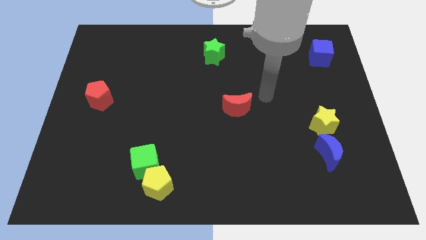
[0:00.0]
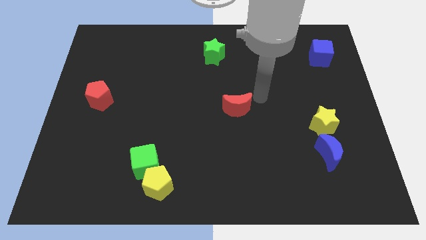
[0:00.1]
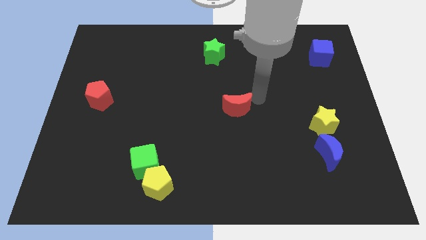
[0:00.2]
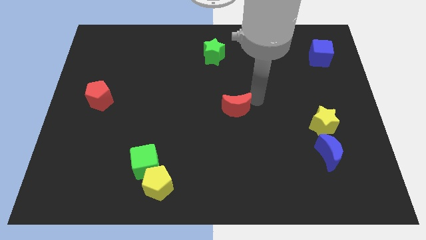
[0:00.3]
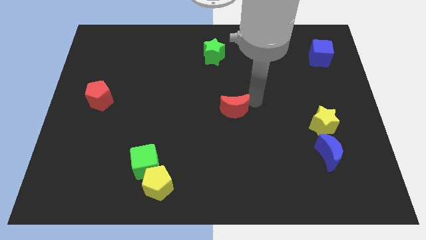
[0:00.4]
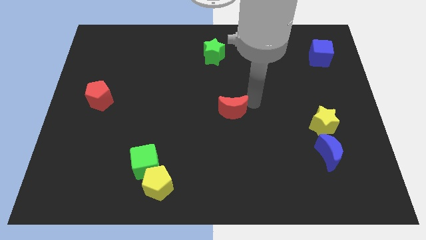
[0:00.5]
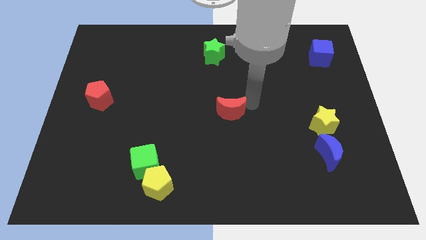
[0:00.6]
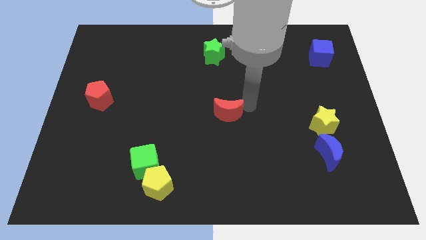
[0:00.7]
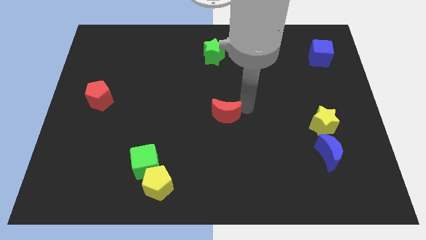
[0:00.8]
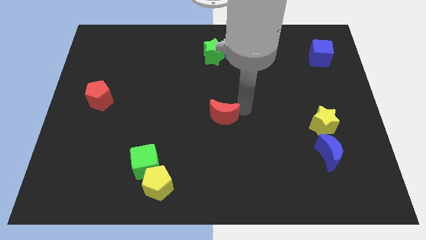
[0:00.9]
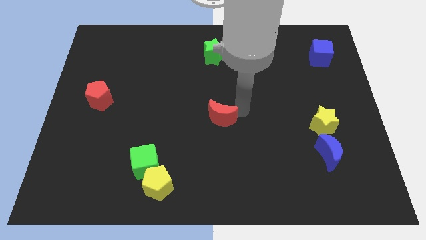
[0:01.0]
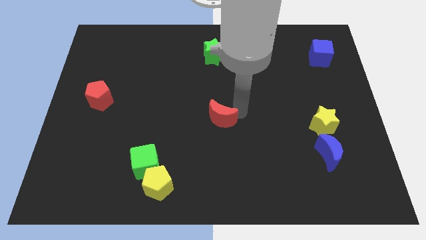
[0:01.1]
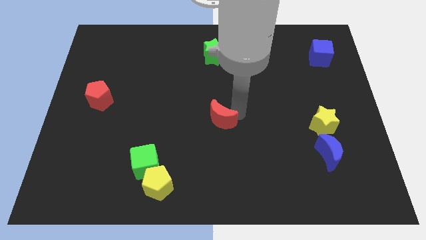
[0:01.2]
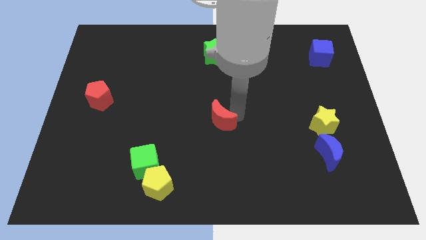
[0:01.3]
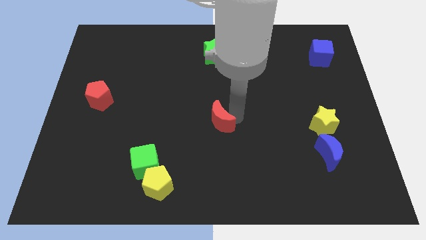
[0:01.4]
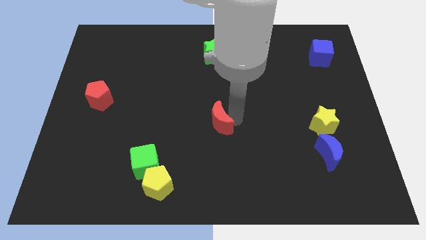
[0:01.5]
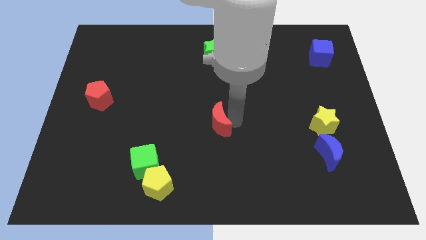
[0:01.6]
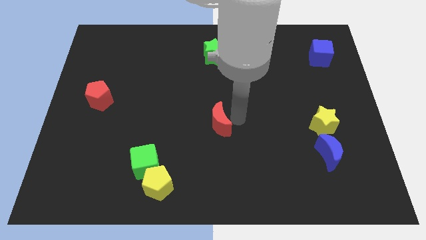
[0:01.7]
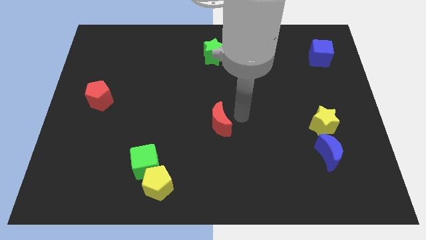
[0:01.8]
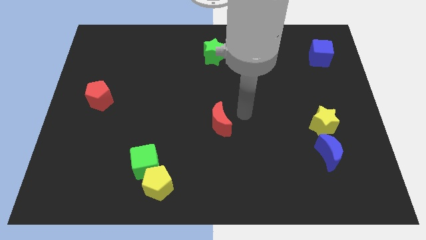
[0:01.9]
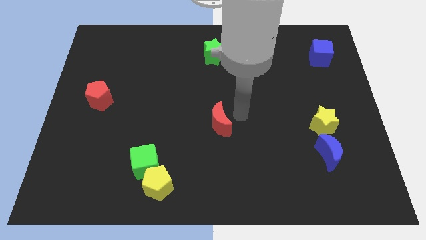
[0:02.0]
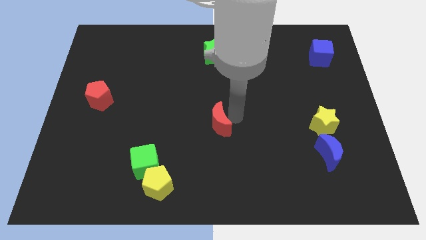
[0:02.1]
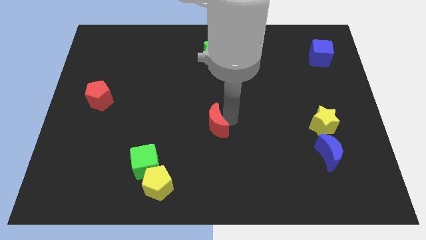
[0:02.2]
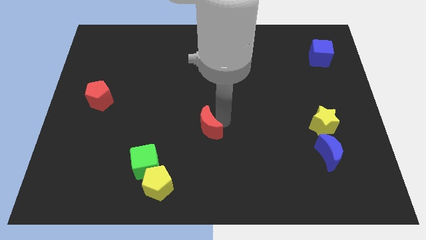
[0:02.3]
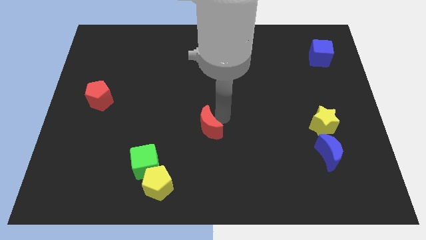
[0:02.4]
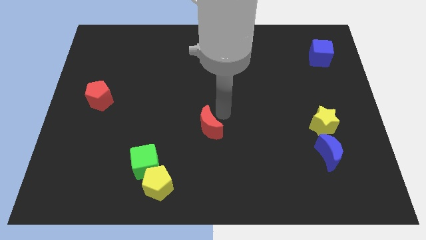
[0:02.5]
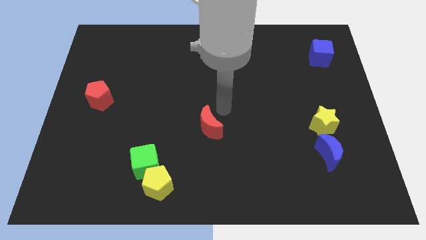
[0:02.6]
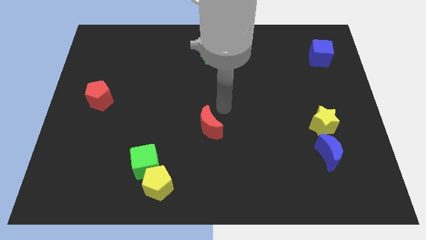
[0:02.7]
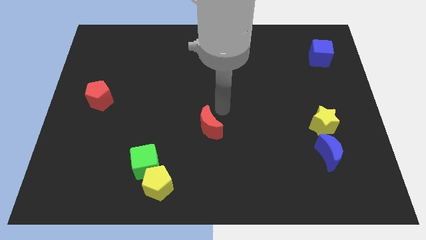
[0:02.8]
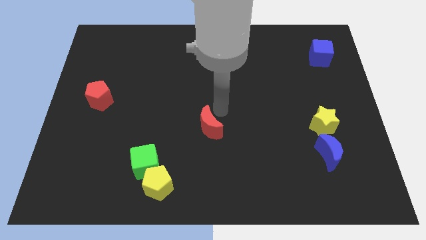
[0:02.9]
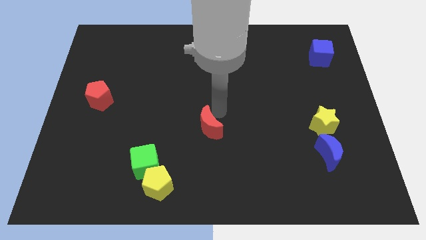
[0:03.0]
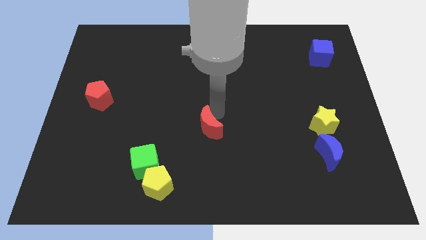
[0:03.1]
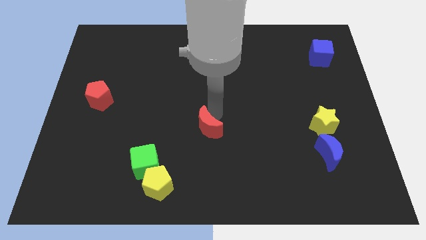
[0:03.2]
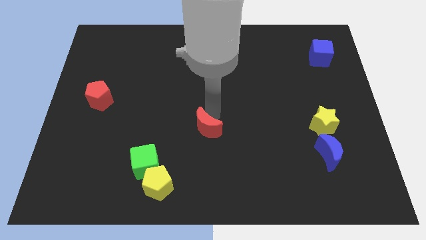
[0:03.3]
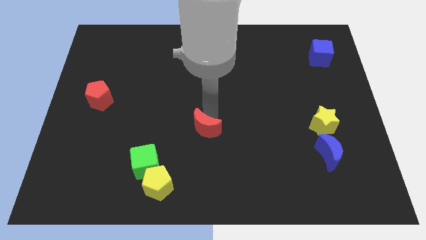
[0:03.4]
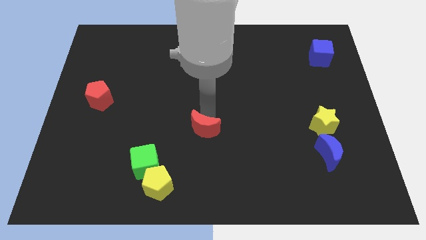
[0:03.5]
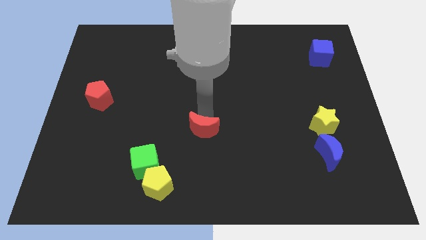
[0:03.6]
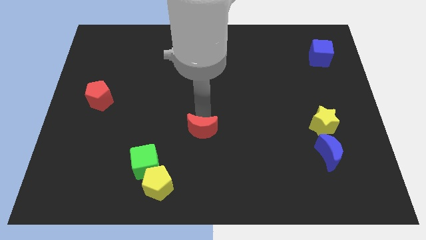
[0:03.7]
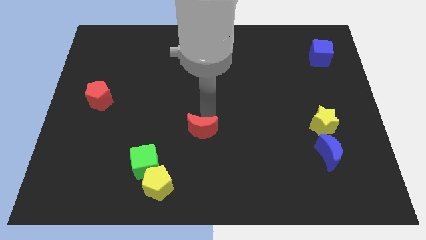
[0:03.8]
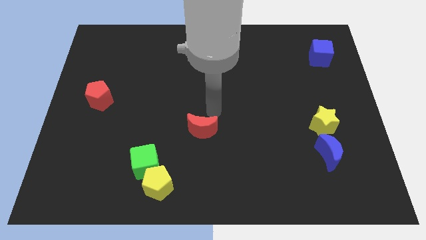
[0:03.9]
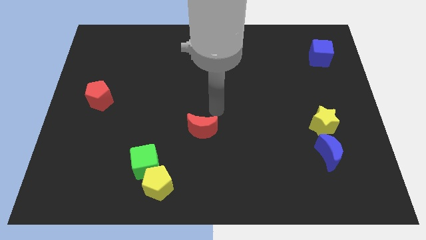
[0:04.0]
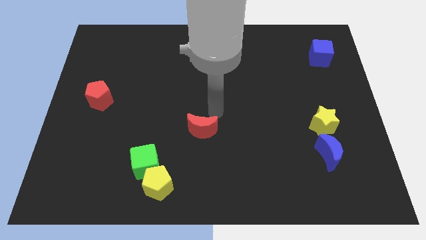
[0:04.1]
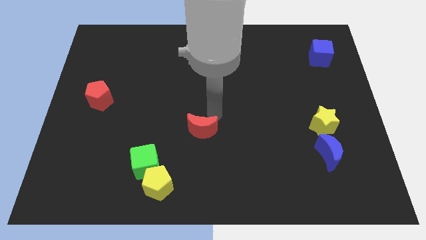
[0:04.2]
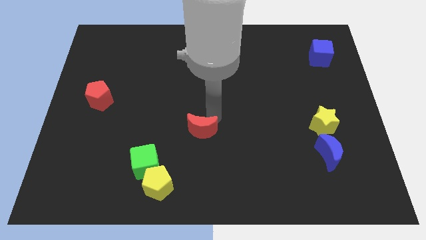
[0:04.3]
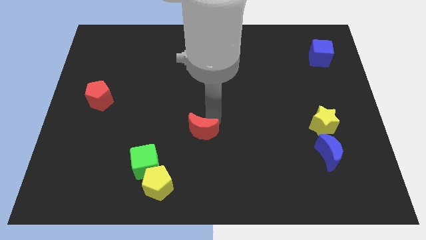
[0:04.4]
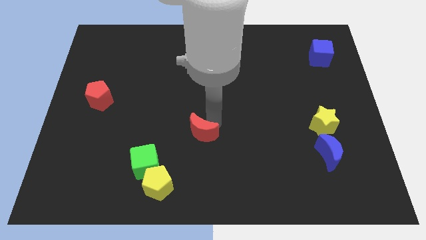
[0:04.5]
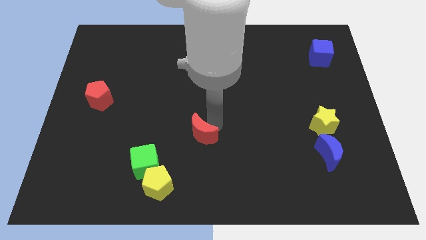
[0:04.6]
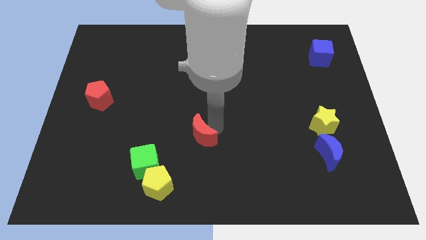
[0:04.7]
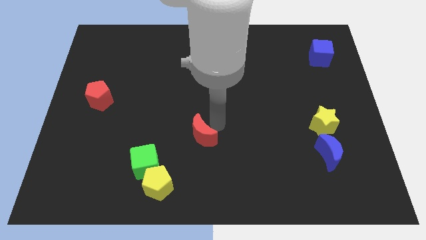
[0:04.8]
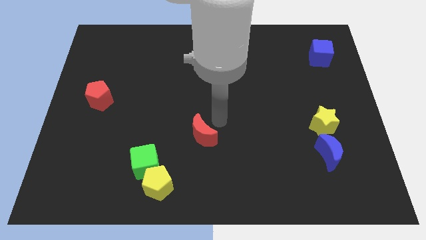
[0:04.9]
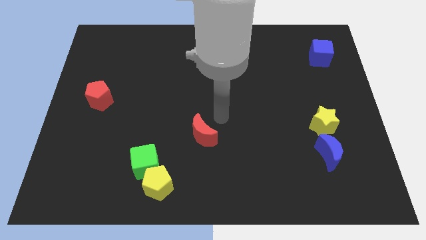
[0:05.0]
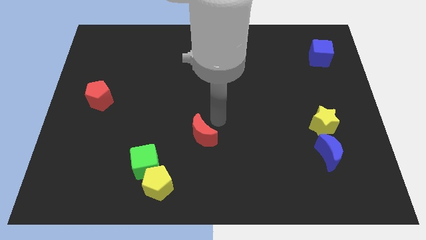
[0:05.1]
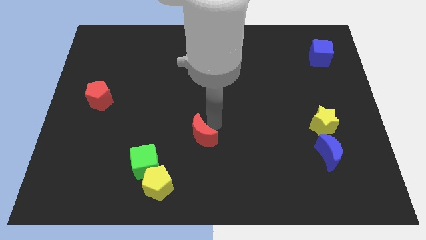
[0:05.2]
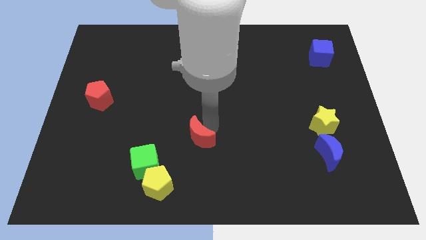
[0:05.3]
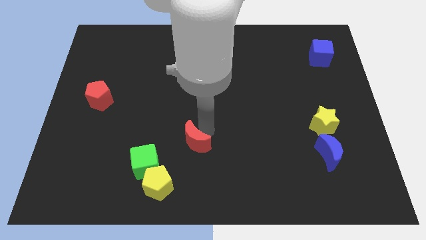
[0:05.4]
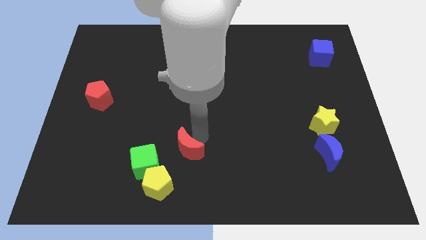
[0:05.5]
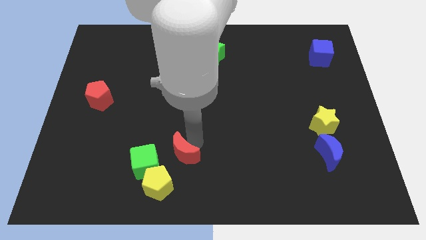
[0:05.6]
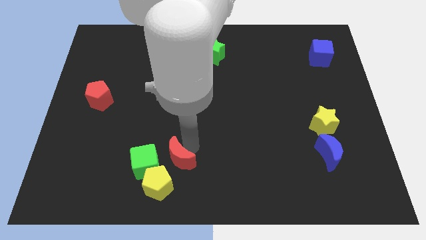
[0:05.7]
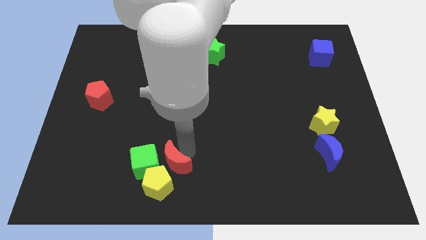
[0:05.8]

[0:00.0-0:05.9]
put the red moon close to the yellow pentagon

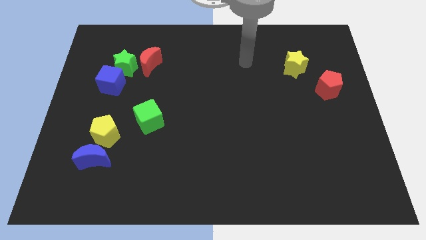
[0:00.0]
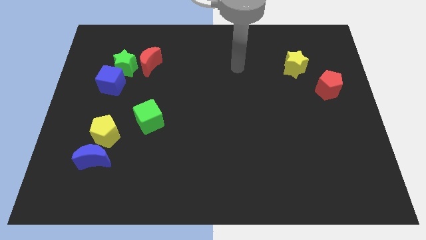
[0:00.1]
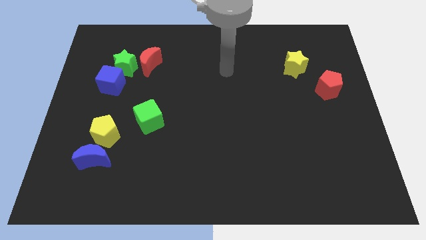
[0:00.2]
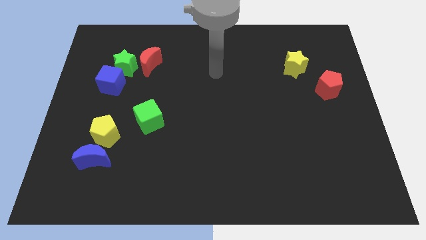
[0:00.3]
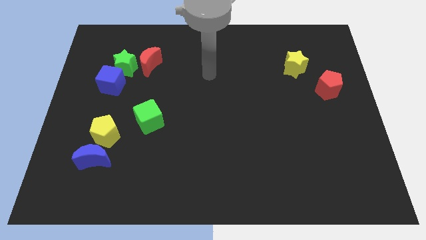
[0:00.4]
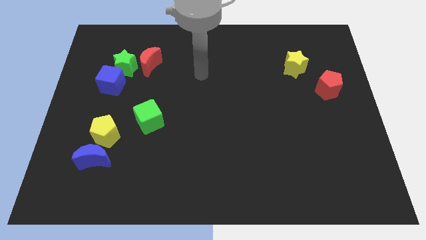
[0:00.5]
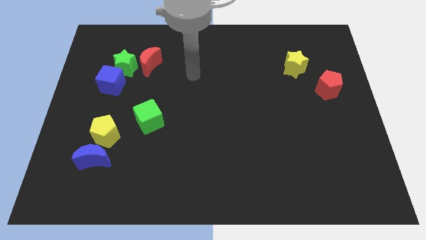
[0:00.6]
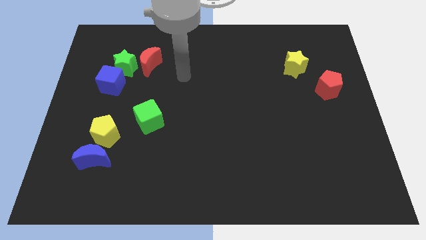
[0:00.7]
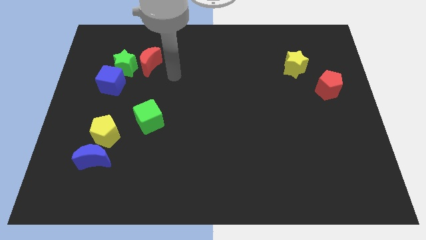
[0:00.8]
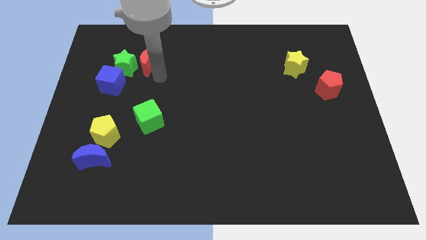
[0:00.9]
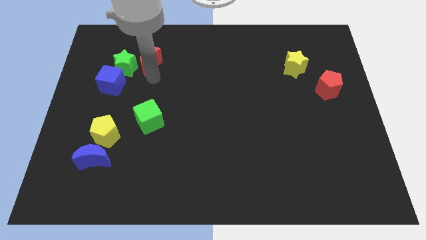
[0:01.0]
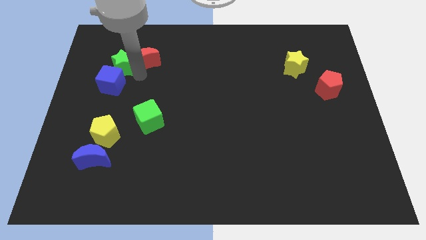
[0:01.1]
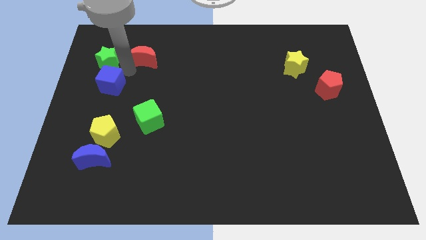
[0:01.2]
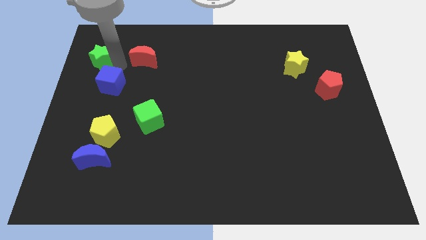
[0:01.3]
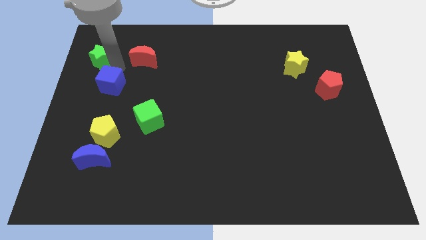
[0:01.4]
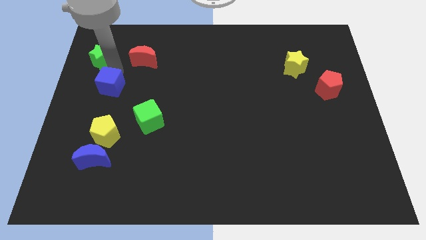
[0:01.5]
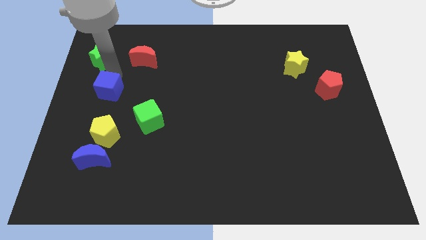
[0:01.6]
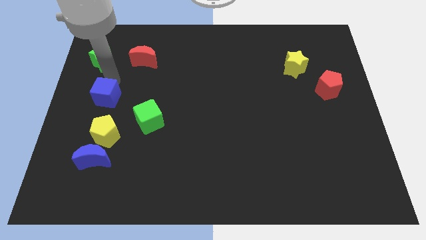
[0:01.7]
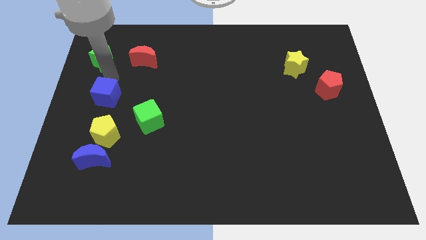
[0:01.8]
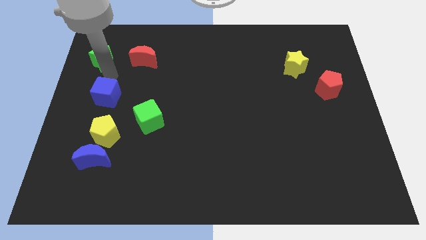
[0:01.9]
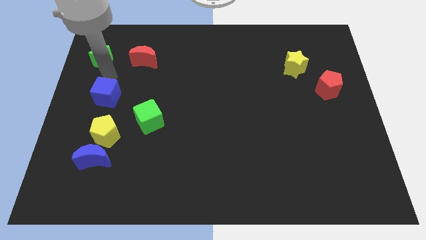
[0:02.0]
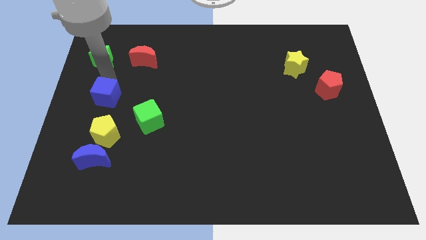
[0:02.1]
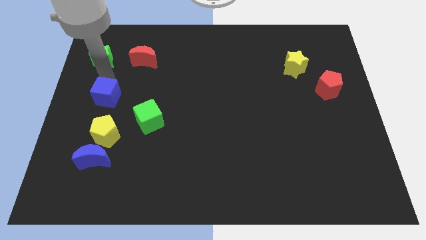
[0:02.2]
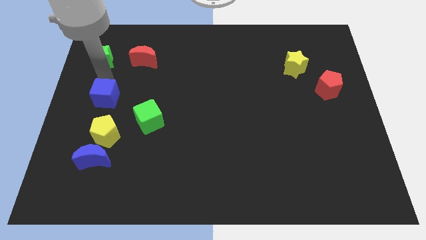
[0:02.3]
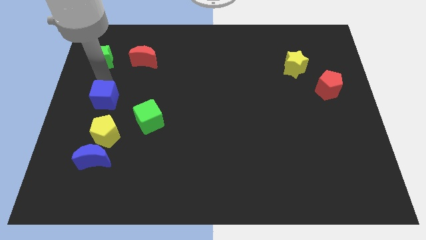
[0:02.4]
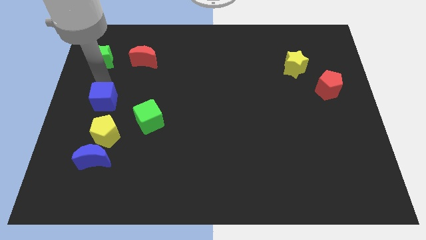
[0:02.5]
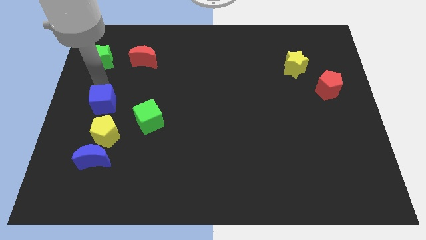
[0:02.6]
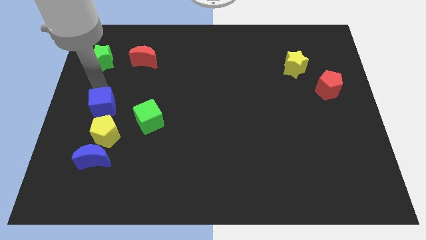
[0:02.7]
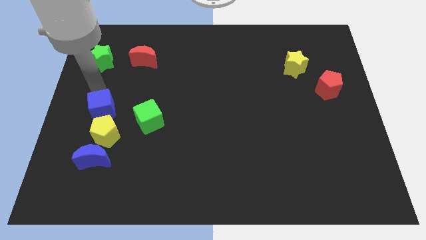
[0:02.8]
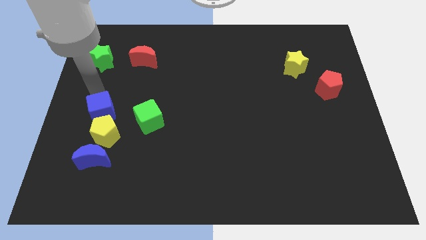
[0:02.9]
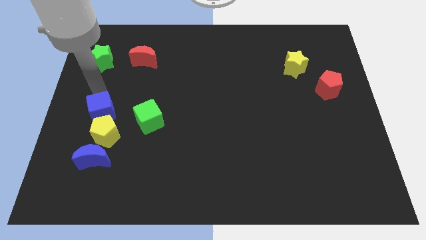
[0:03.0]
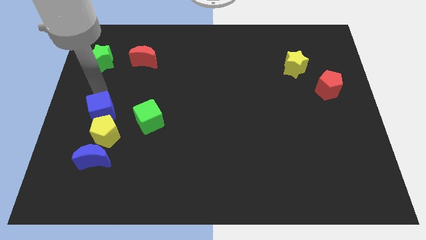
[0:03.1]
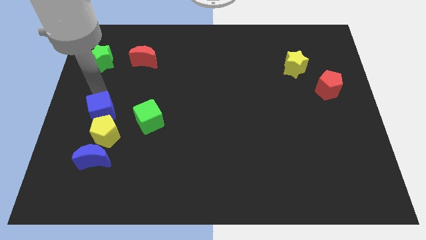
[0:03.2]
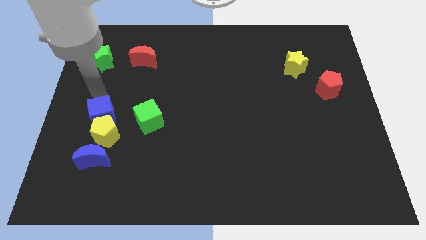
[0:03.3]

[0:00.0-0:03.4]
move the blue cube next to the yellow pentagon
